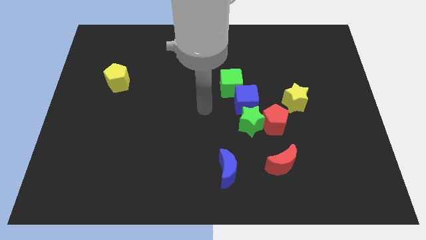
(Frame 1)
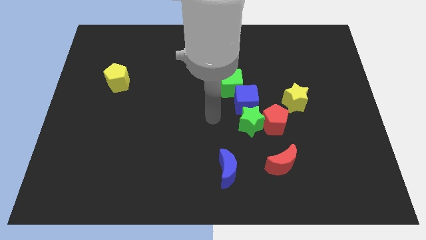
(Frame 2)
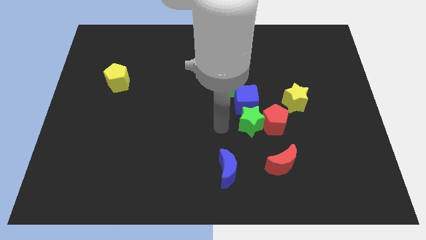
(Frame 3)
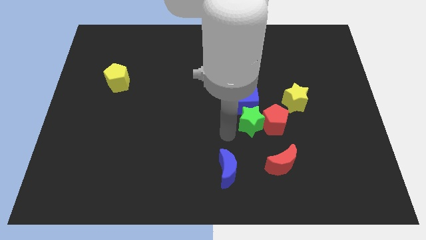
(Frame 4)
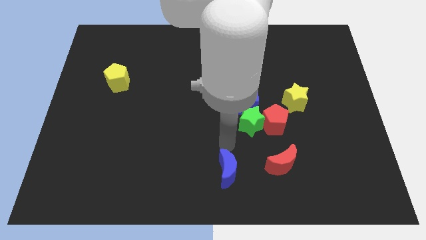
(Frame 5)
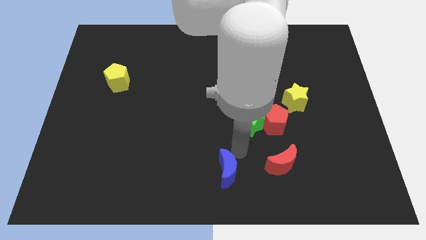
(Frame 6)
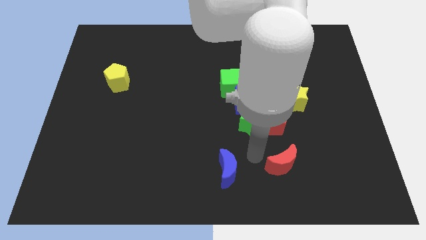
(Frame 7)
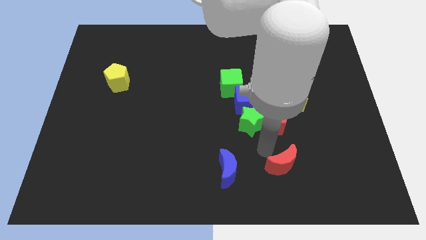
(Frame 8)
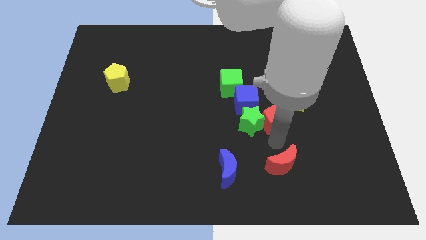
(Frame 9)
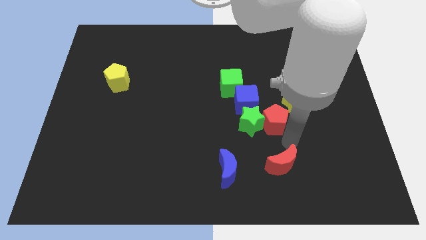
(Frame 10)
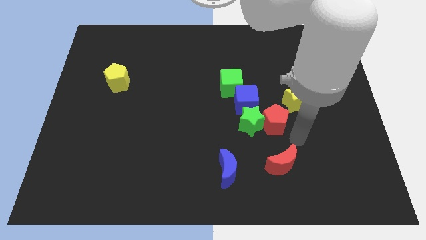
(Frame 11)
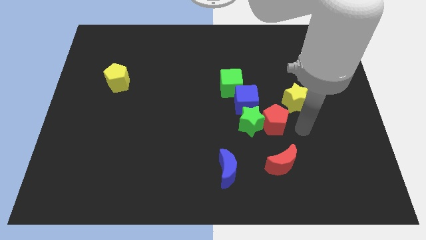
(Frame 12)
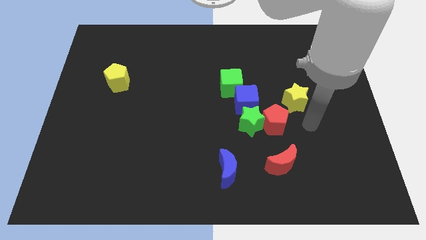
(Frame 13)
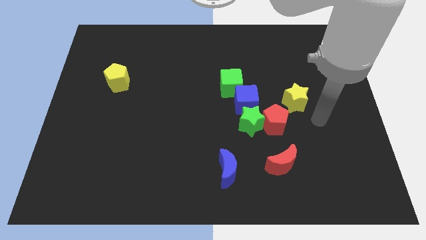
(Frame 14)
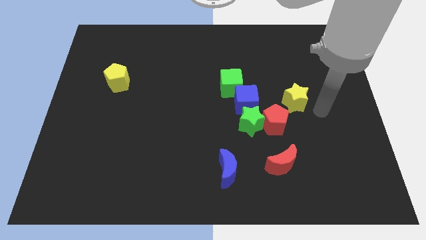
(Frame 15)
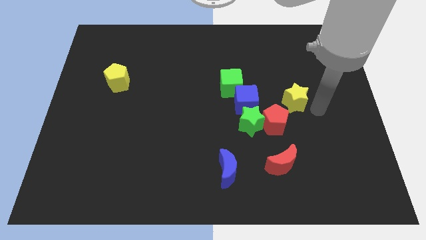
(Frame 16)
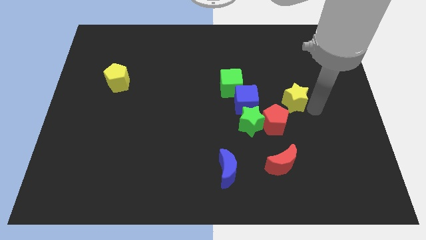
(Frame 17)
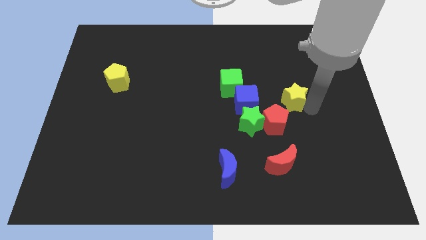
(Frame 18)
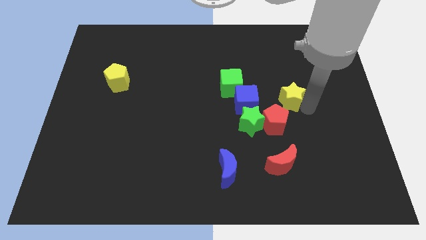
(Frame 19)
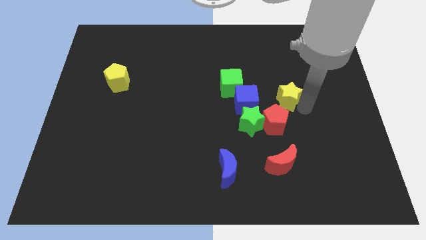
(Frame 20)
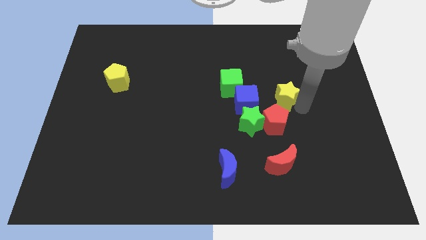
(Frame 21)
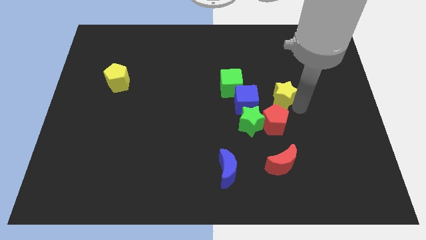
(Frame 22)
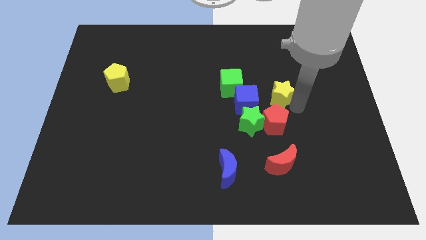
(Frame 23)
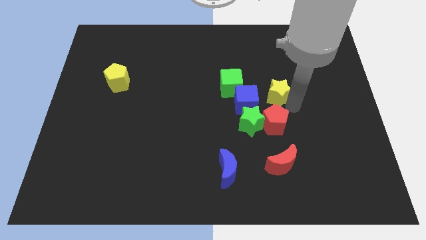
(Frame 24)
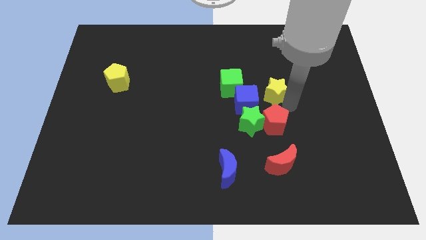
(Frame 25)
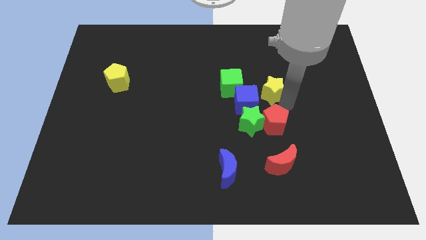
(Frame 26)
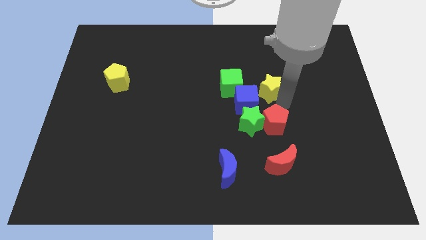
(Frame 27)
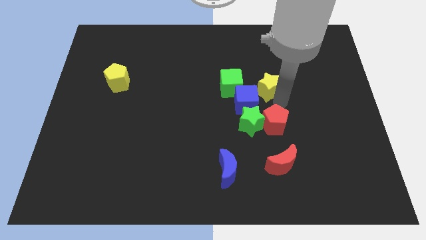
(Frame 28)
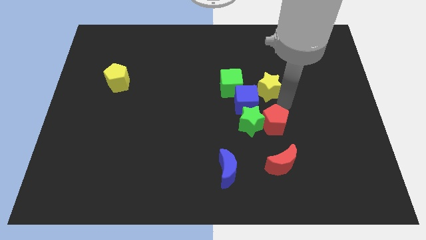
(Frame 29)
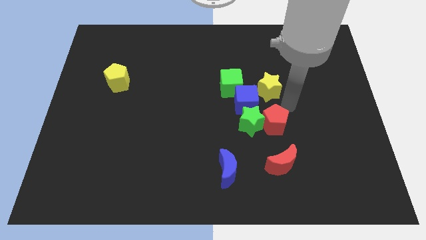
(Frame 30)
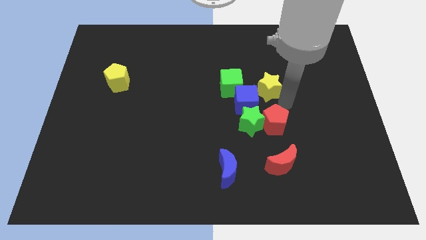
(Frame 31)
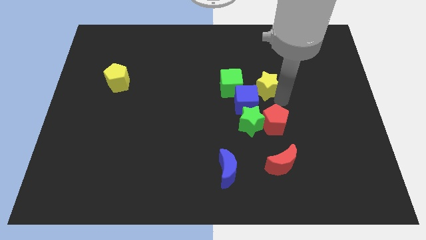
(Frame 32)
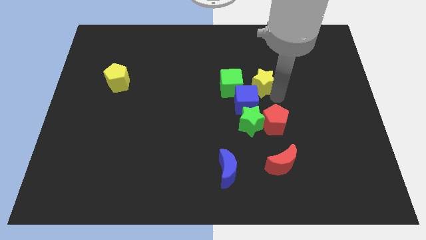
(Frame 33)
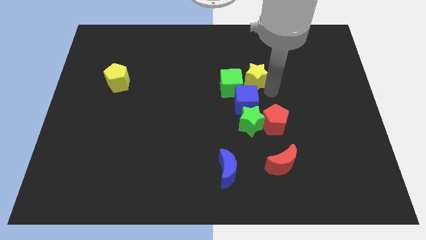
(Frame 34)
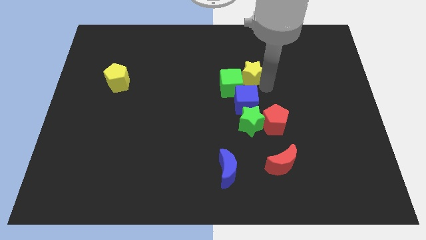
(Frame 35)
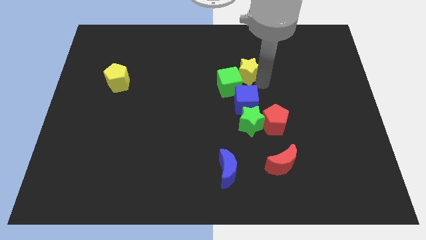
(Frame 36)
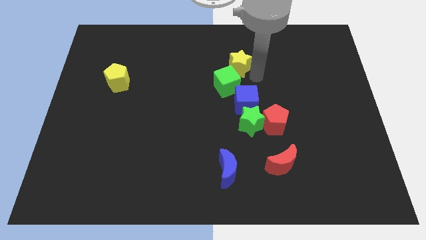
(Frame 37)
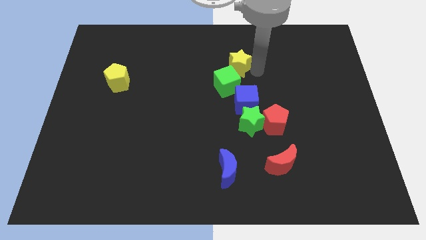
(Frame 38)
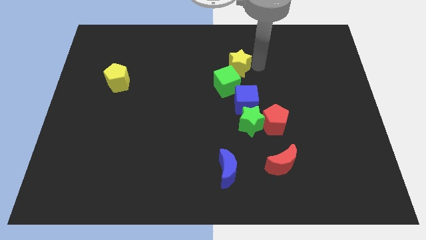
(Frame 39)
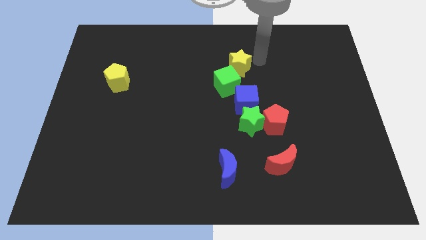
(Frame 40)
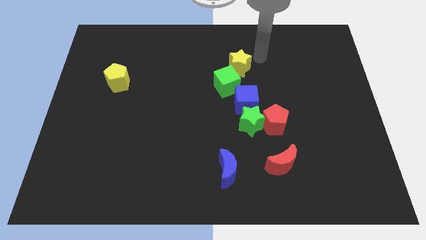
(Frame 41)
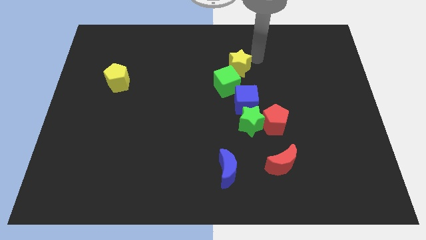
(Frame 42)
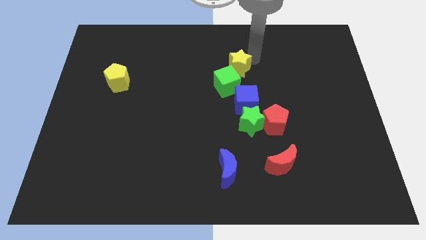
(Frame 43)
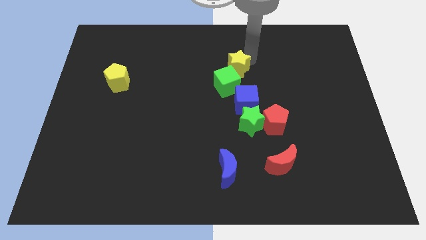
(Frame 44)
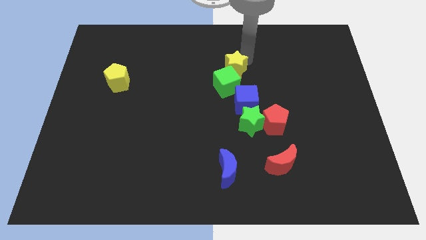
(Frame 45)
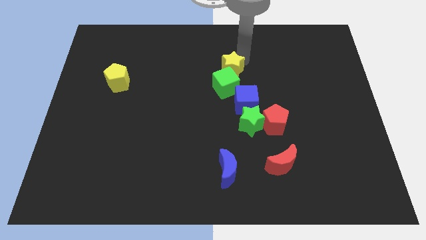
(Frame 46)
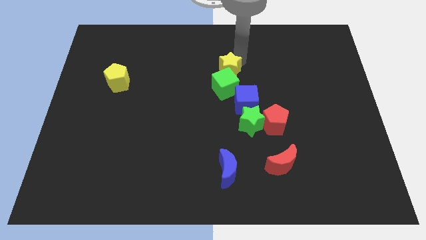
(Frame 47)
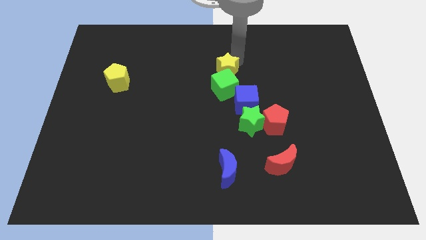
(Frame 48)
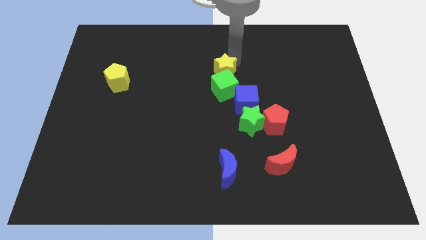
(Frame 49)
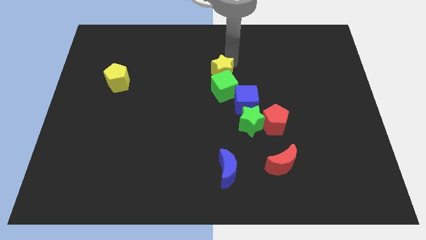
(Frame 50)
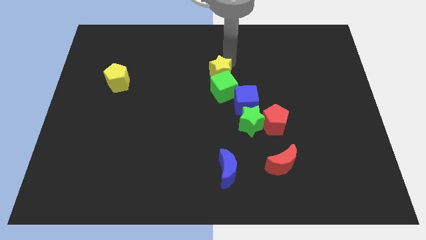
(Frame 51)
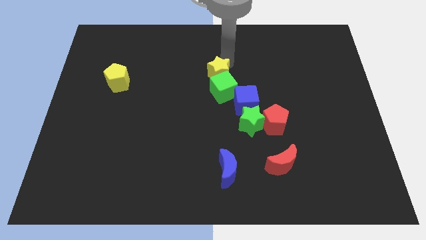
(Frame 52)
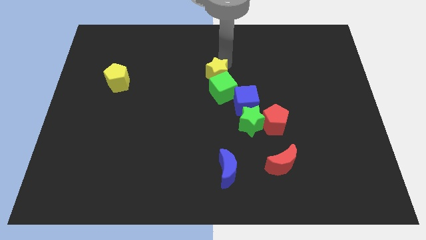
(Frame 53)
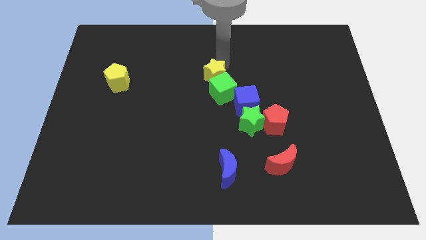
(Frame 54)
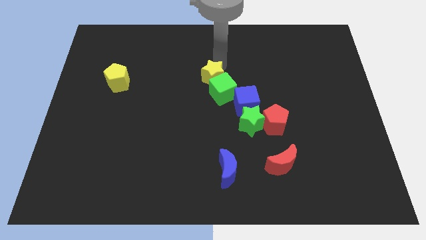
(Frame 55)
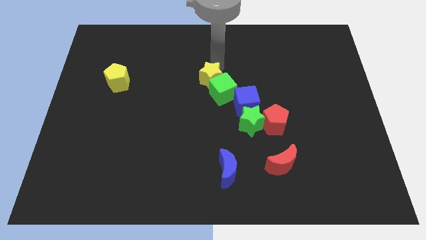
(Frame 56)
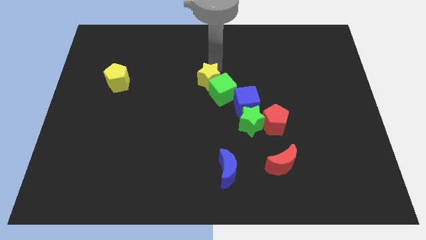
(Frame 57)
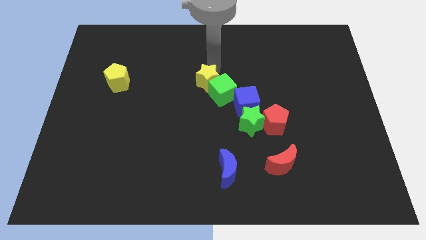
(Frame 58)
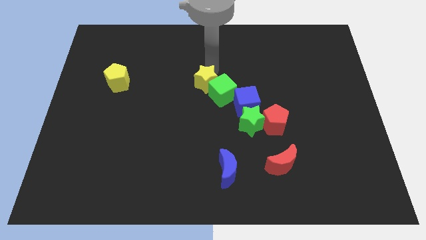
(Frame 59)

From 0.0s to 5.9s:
move the yellow star left

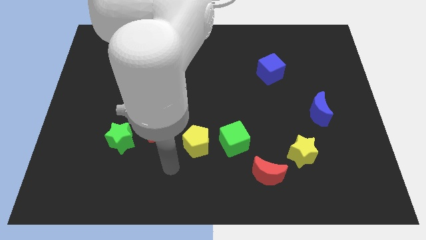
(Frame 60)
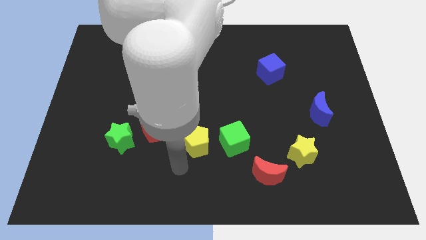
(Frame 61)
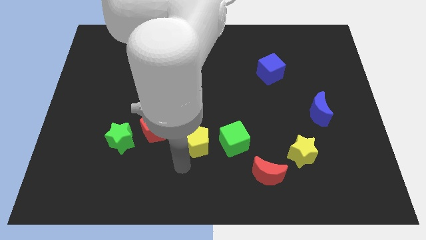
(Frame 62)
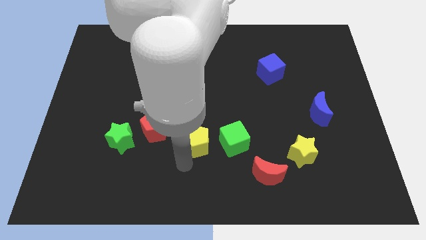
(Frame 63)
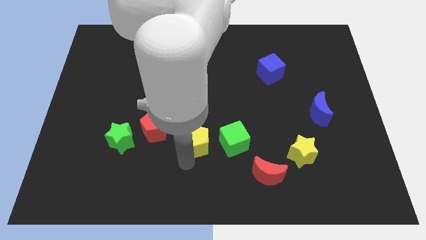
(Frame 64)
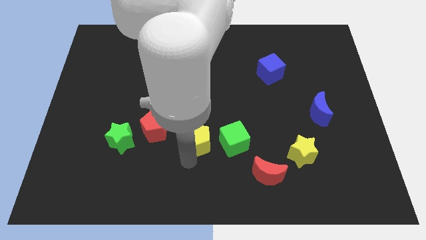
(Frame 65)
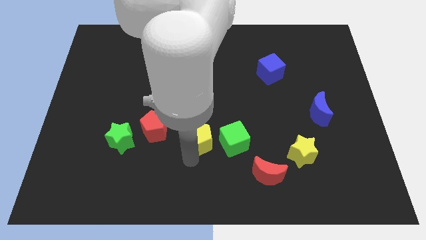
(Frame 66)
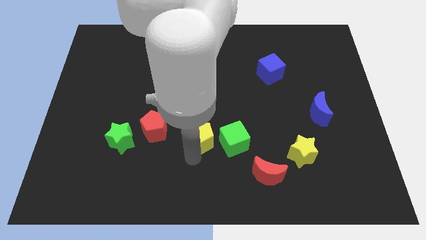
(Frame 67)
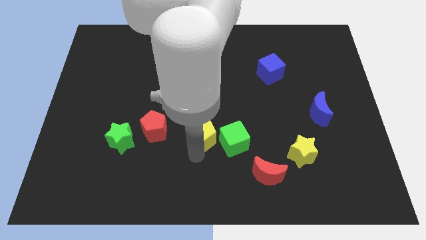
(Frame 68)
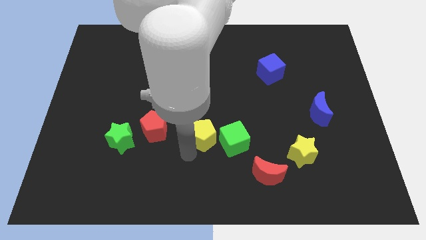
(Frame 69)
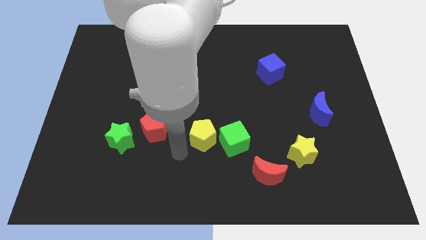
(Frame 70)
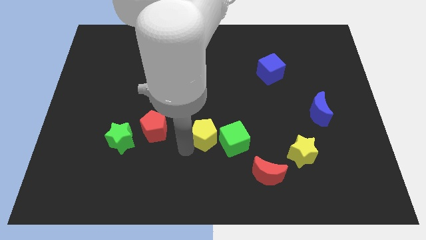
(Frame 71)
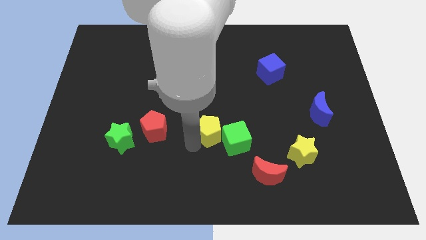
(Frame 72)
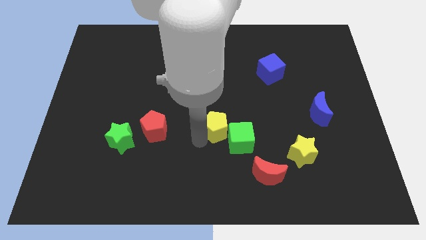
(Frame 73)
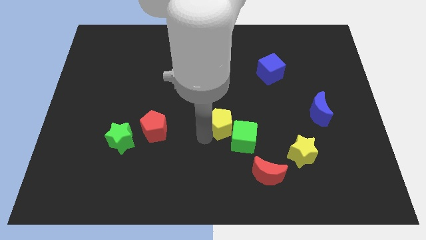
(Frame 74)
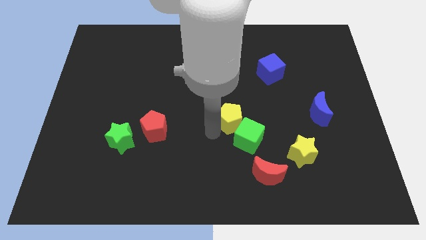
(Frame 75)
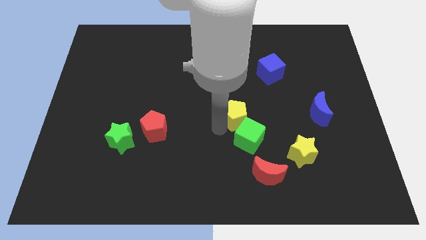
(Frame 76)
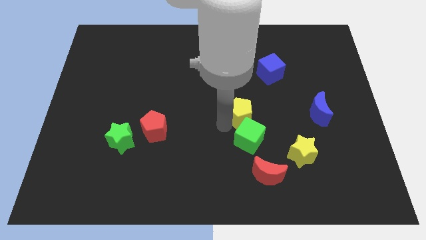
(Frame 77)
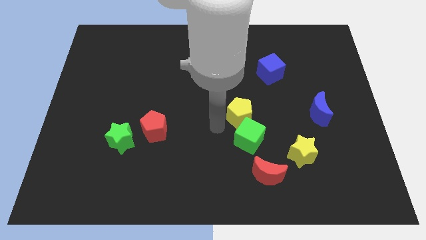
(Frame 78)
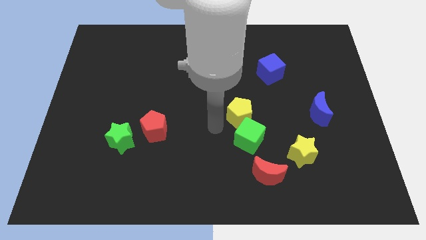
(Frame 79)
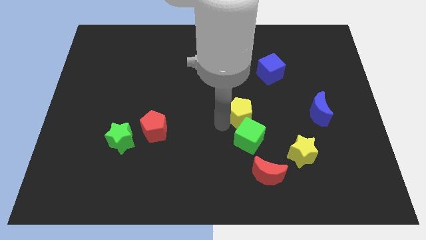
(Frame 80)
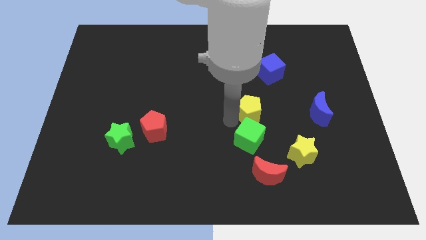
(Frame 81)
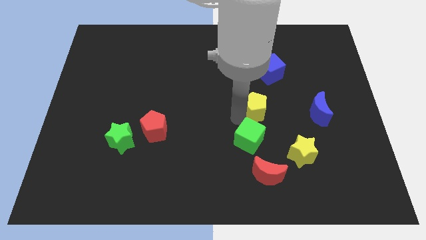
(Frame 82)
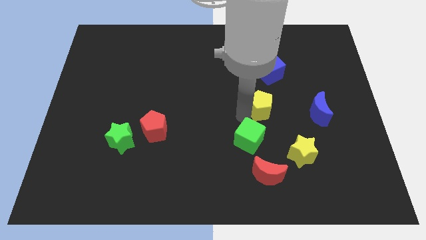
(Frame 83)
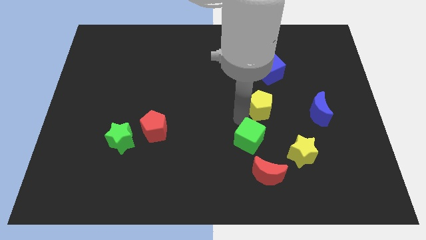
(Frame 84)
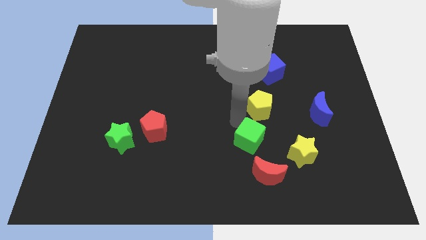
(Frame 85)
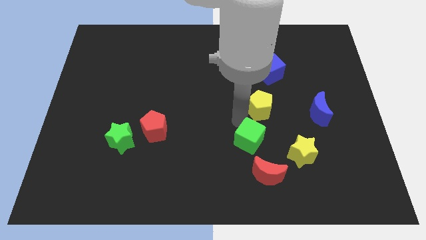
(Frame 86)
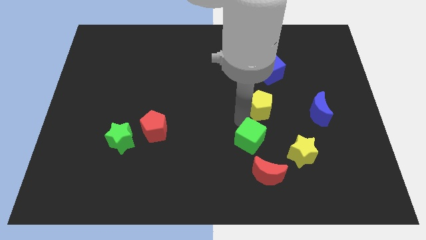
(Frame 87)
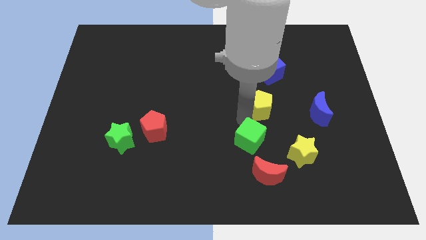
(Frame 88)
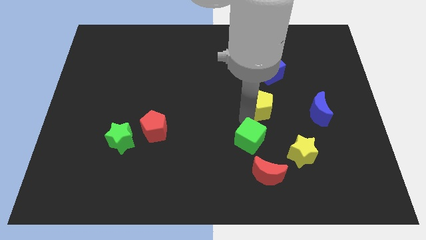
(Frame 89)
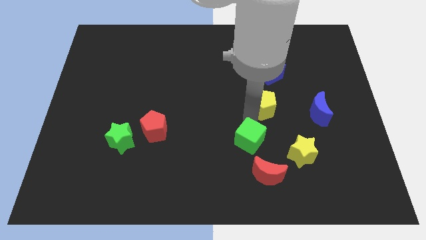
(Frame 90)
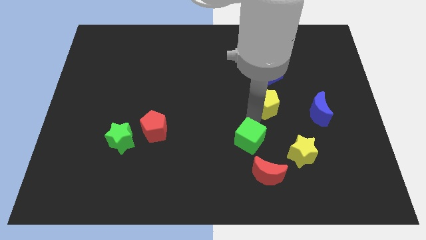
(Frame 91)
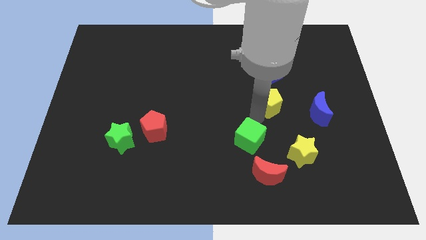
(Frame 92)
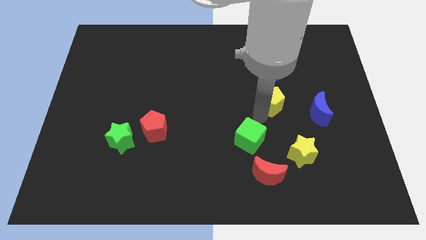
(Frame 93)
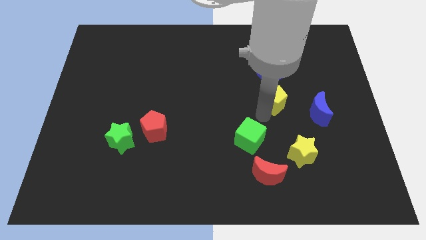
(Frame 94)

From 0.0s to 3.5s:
push the yellow pentagon upwards and to the right diagonally
